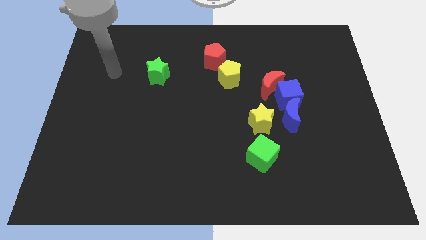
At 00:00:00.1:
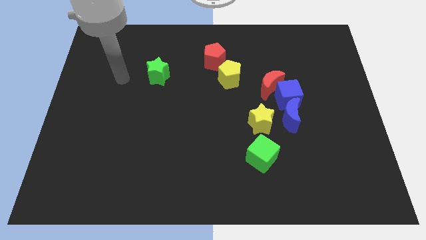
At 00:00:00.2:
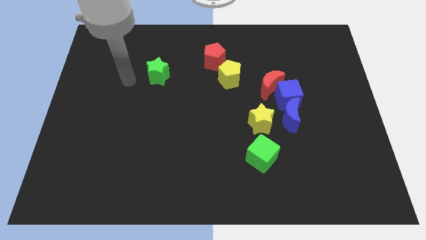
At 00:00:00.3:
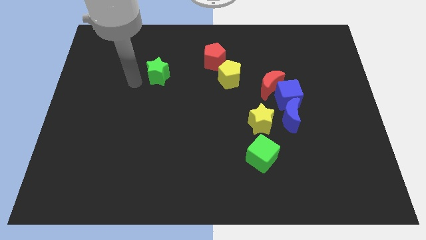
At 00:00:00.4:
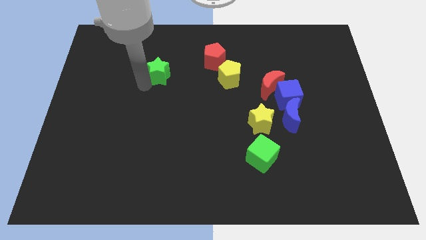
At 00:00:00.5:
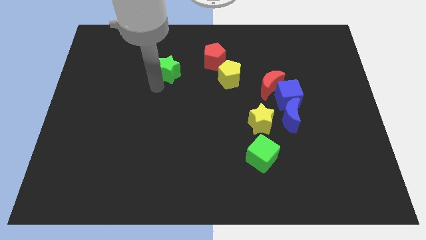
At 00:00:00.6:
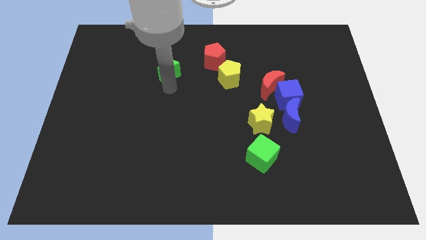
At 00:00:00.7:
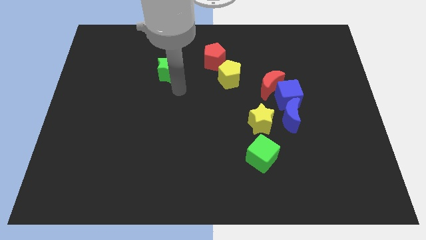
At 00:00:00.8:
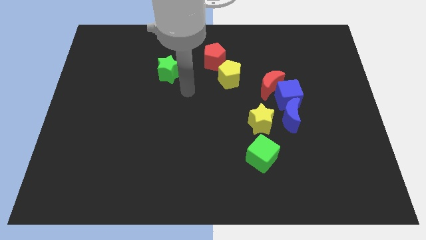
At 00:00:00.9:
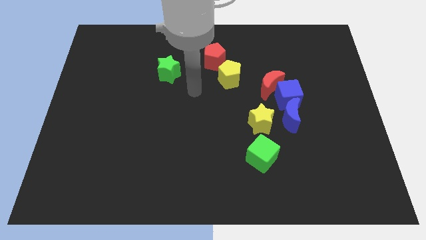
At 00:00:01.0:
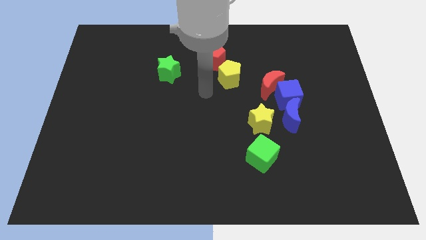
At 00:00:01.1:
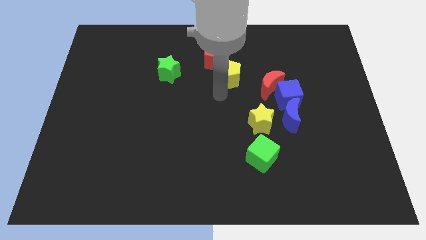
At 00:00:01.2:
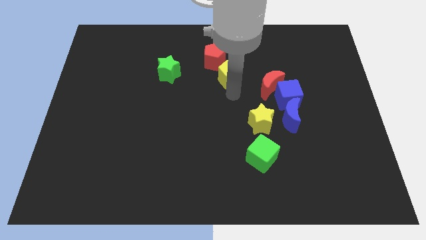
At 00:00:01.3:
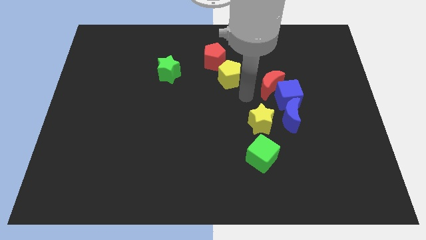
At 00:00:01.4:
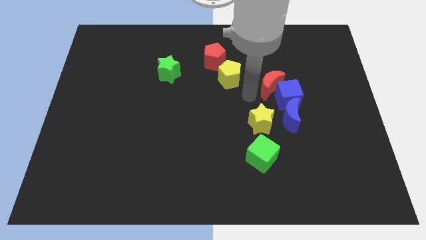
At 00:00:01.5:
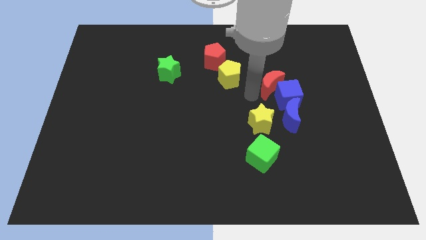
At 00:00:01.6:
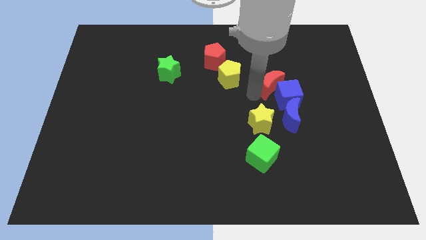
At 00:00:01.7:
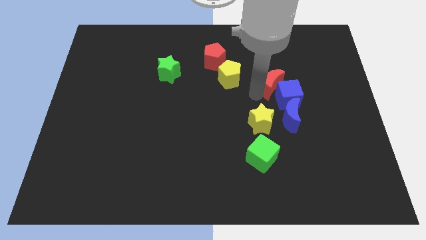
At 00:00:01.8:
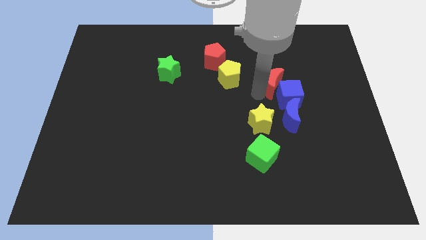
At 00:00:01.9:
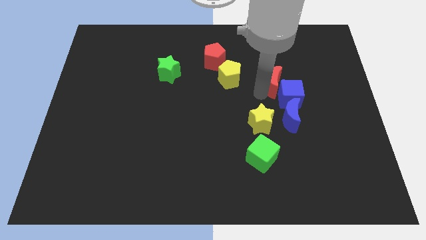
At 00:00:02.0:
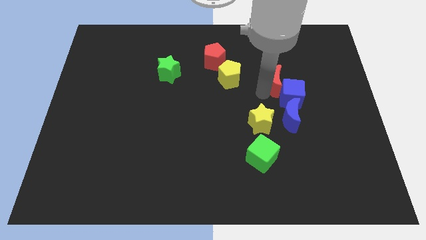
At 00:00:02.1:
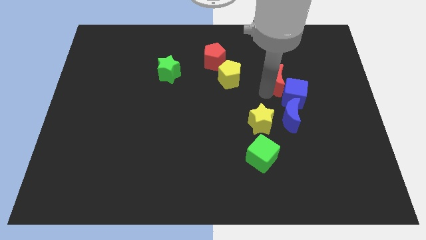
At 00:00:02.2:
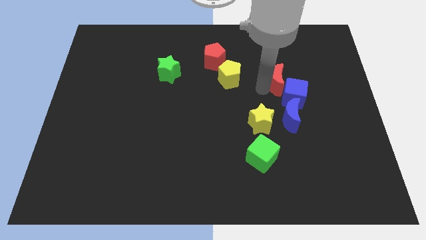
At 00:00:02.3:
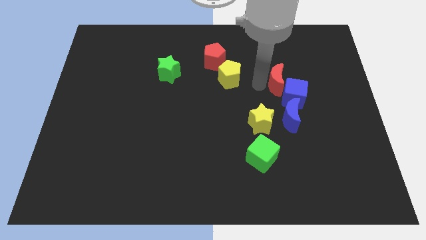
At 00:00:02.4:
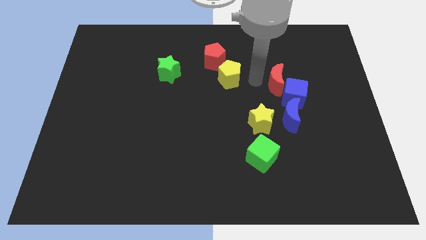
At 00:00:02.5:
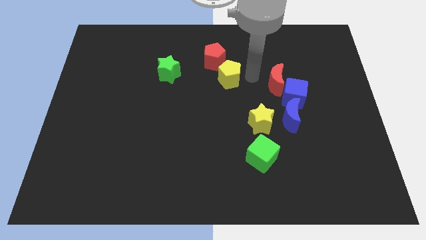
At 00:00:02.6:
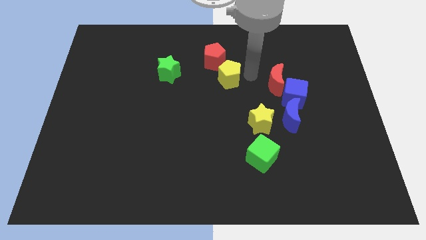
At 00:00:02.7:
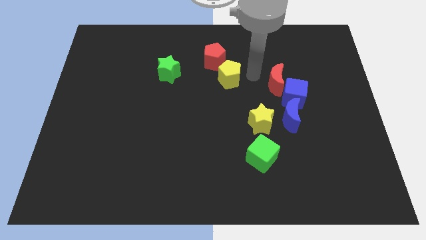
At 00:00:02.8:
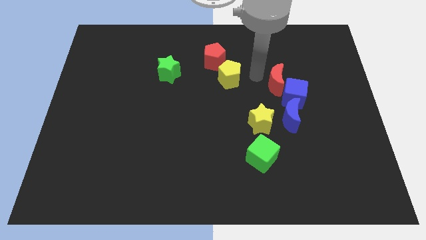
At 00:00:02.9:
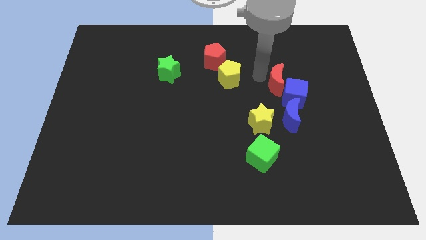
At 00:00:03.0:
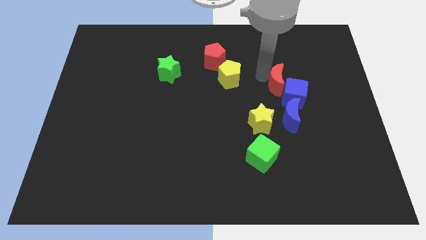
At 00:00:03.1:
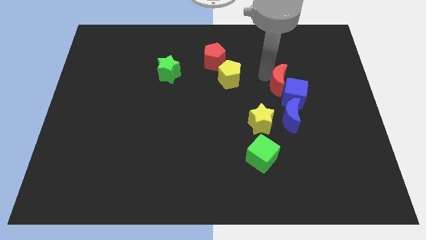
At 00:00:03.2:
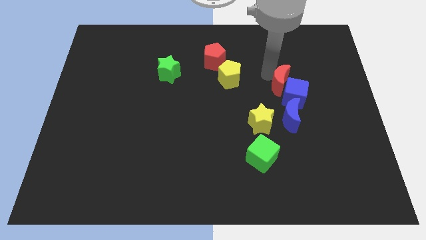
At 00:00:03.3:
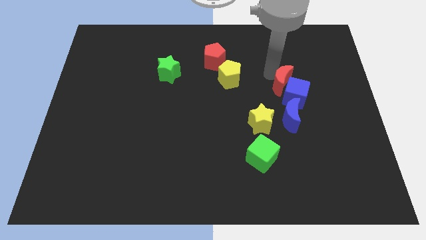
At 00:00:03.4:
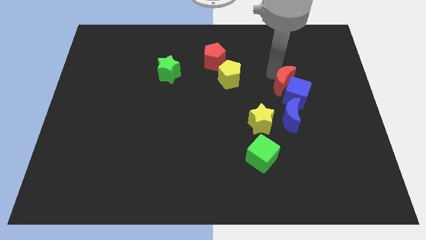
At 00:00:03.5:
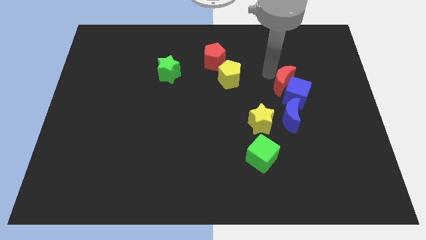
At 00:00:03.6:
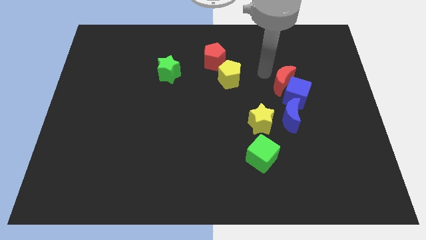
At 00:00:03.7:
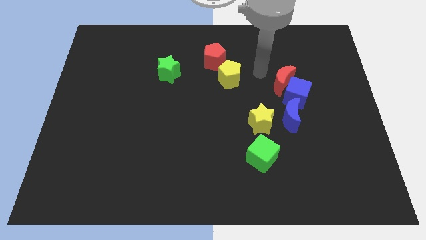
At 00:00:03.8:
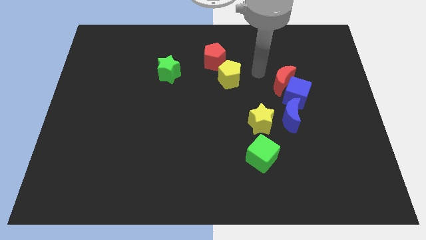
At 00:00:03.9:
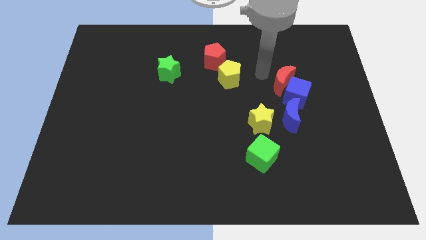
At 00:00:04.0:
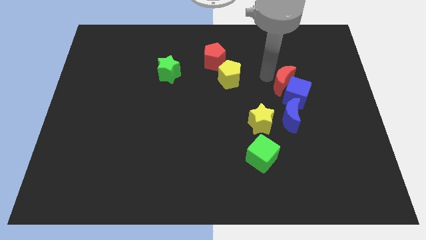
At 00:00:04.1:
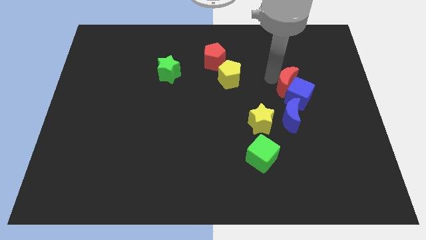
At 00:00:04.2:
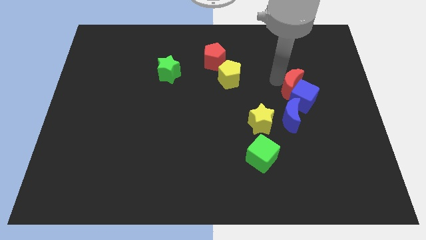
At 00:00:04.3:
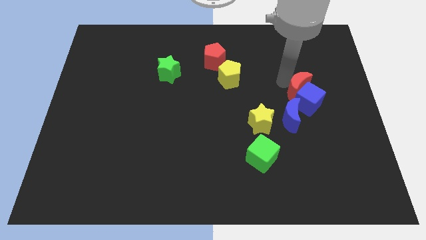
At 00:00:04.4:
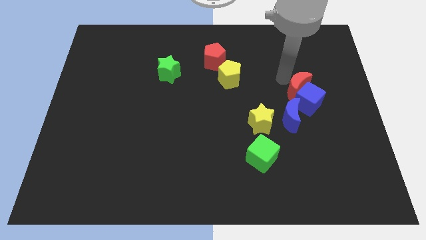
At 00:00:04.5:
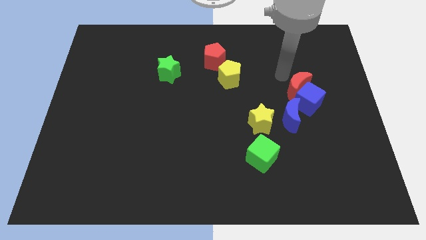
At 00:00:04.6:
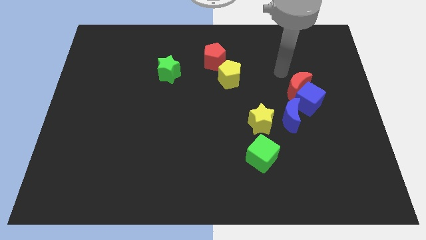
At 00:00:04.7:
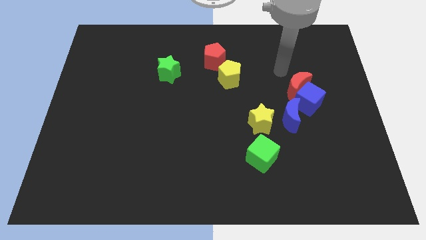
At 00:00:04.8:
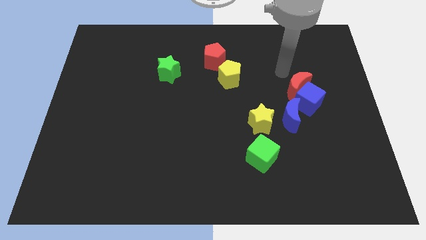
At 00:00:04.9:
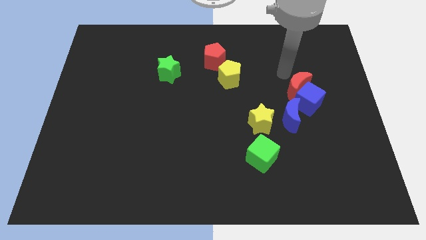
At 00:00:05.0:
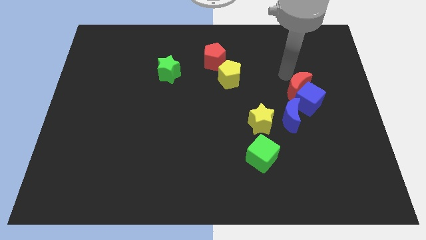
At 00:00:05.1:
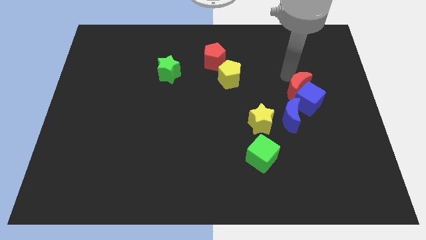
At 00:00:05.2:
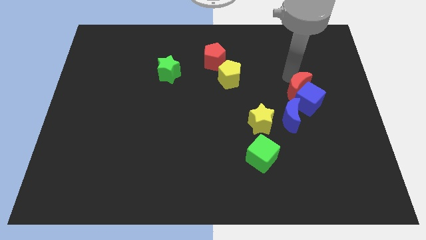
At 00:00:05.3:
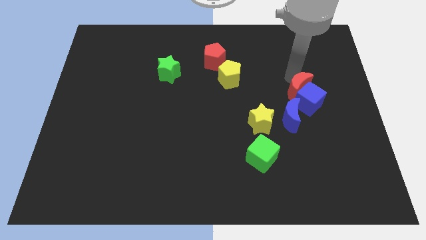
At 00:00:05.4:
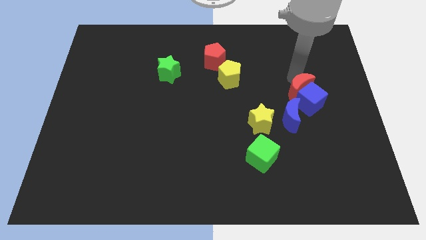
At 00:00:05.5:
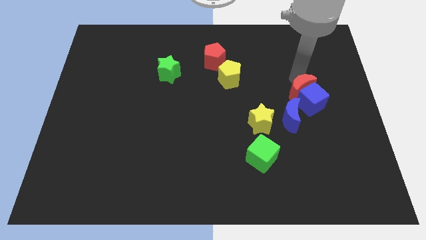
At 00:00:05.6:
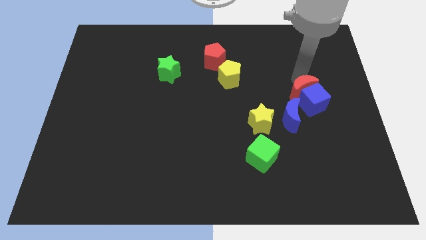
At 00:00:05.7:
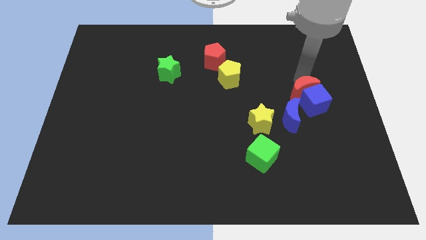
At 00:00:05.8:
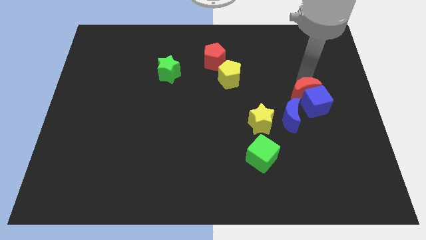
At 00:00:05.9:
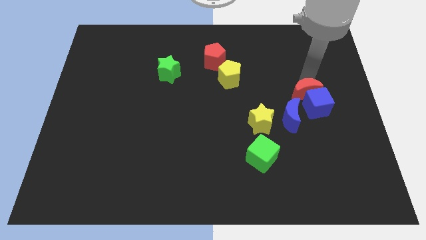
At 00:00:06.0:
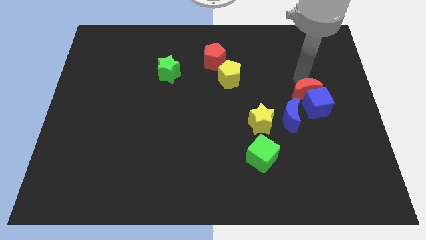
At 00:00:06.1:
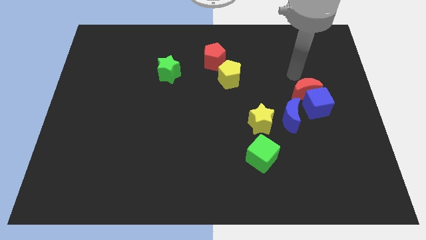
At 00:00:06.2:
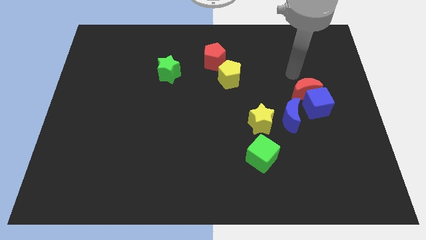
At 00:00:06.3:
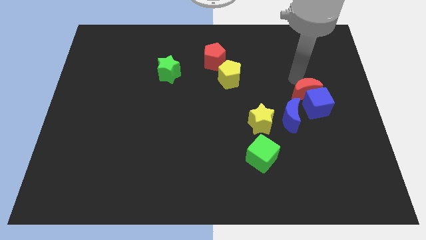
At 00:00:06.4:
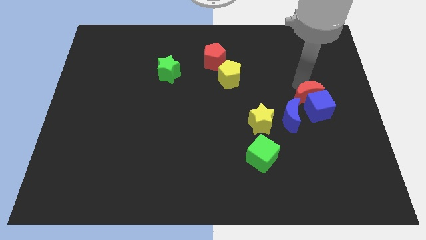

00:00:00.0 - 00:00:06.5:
push the red moon down and right diagonally slightly

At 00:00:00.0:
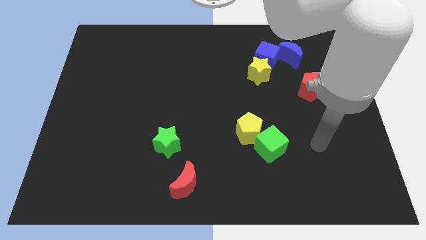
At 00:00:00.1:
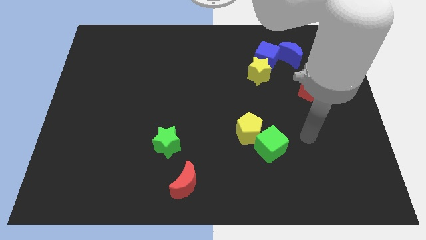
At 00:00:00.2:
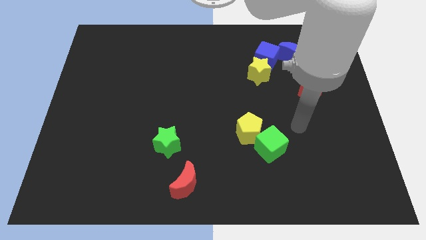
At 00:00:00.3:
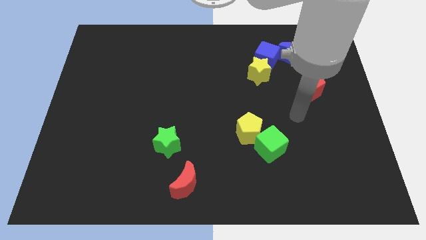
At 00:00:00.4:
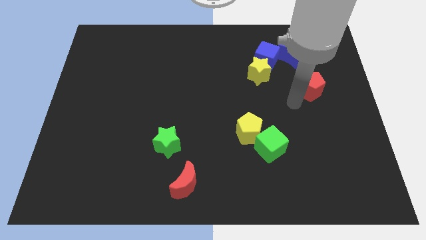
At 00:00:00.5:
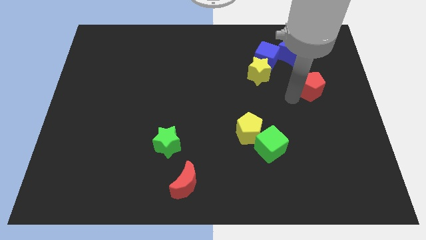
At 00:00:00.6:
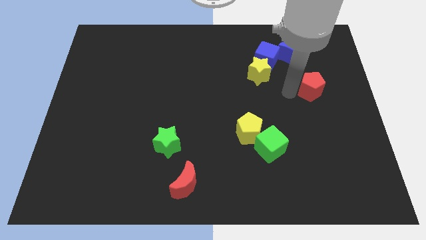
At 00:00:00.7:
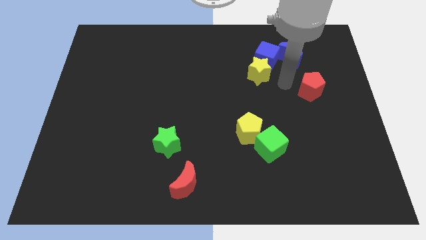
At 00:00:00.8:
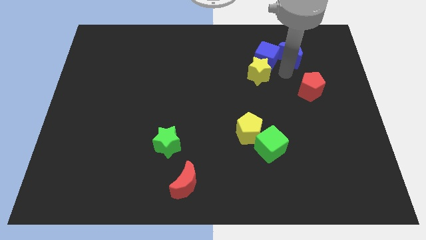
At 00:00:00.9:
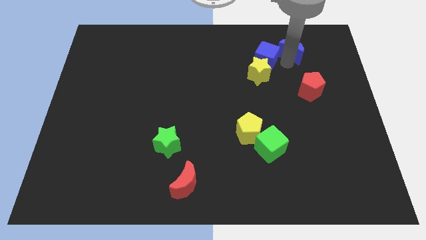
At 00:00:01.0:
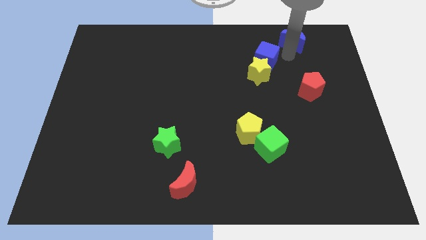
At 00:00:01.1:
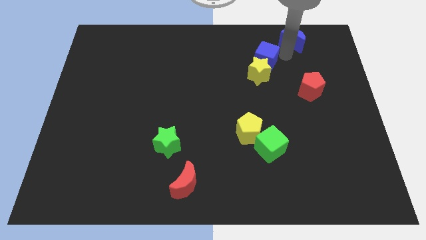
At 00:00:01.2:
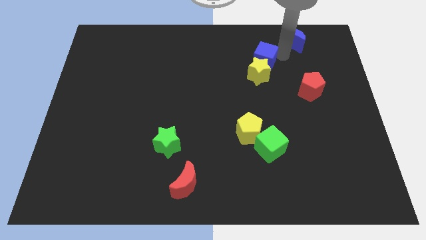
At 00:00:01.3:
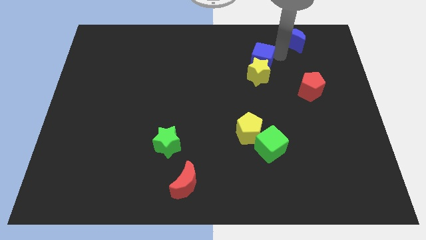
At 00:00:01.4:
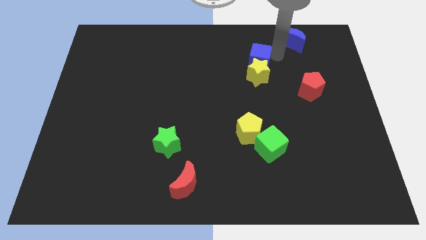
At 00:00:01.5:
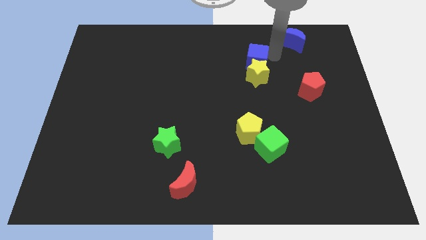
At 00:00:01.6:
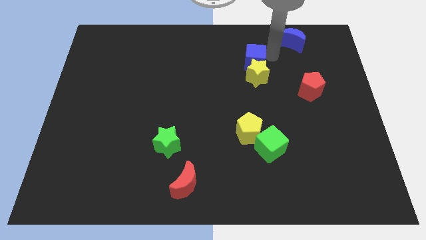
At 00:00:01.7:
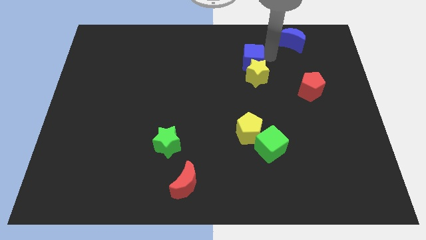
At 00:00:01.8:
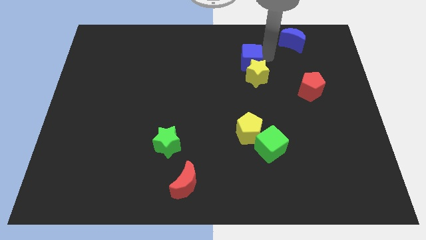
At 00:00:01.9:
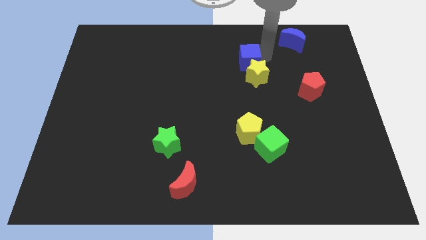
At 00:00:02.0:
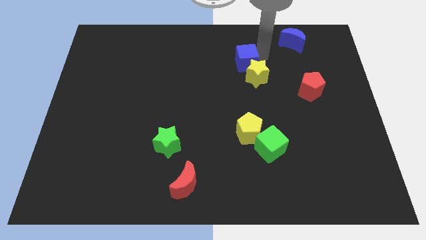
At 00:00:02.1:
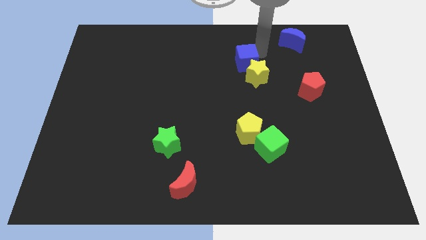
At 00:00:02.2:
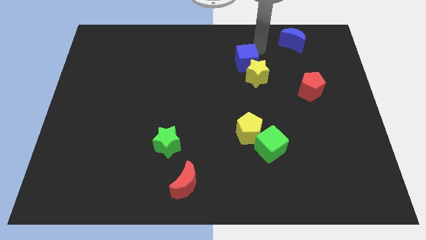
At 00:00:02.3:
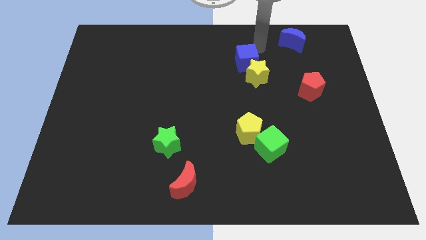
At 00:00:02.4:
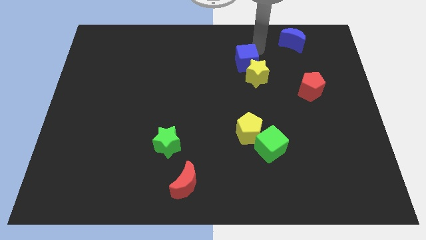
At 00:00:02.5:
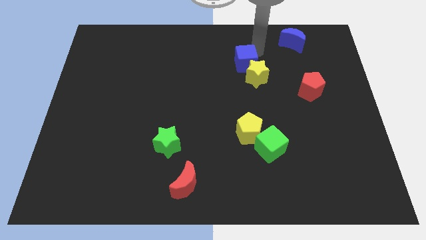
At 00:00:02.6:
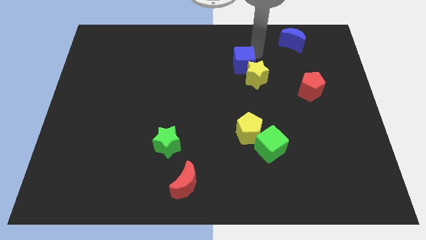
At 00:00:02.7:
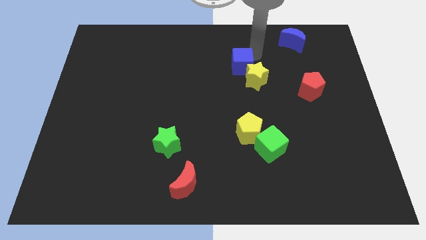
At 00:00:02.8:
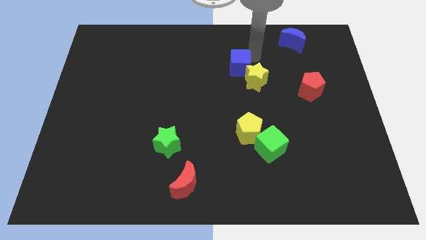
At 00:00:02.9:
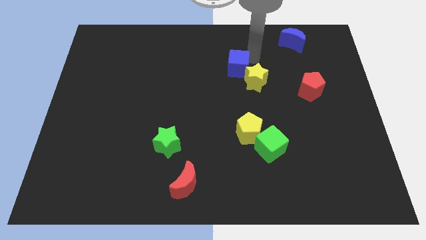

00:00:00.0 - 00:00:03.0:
slightly move the blue cube down and left diagonally
